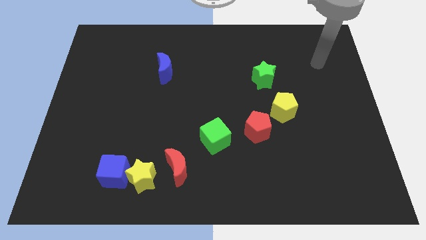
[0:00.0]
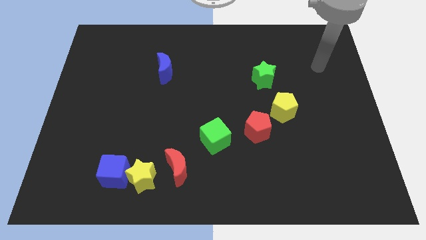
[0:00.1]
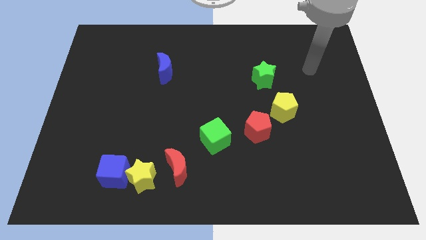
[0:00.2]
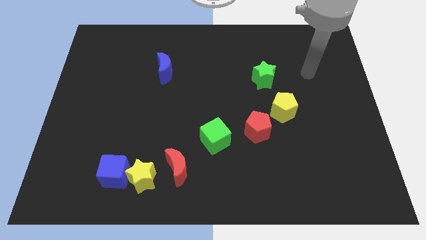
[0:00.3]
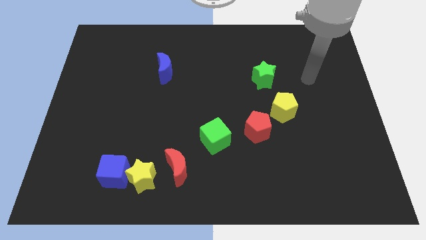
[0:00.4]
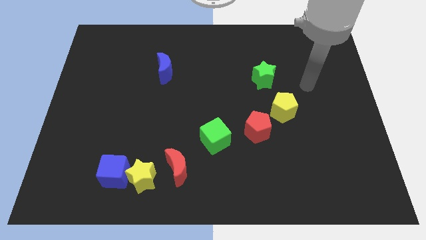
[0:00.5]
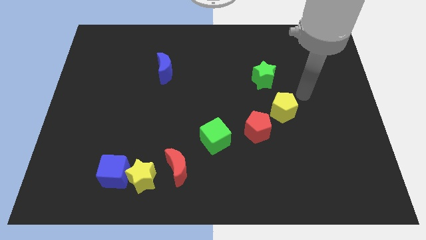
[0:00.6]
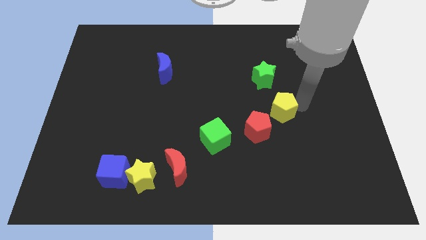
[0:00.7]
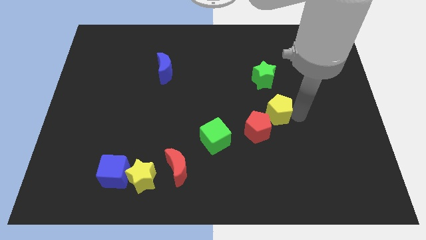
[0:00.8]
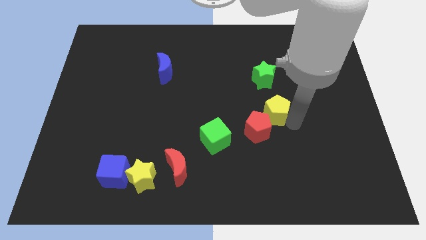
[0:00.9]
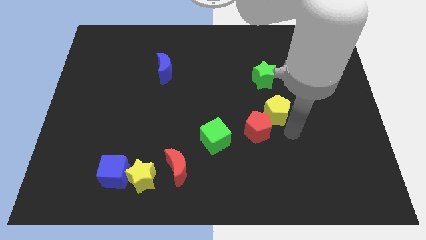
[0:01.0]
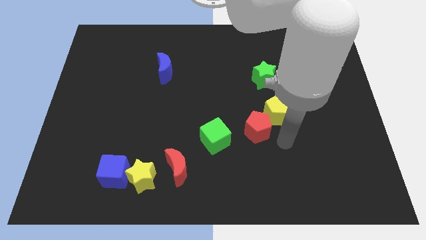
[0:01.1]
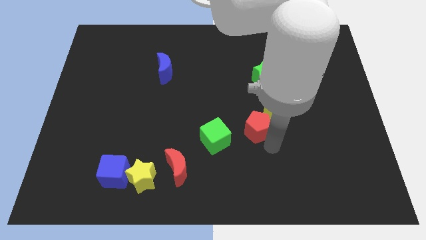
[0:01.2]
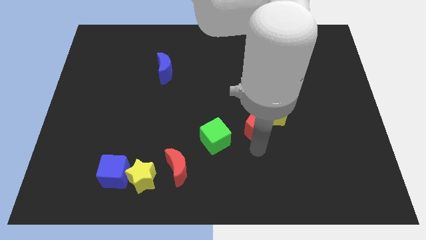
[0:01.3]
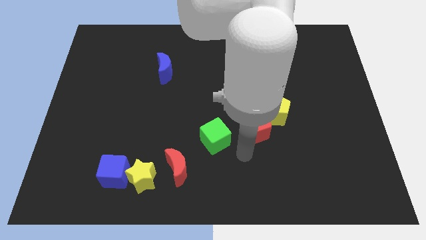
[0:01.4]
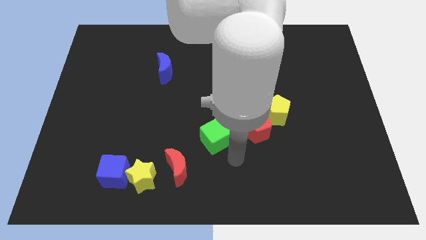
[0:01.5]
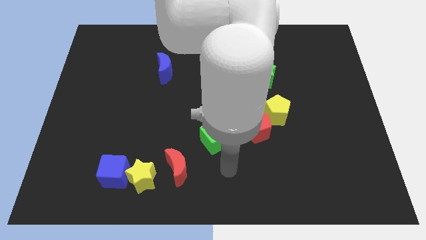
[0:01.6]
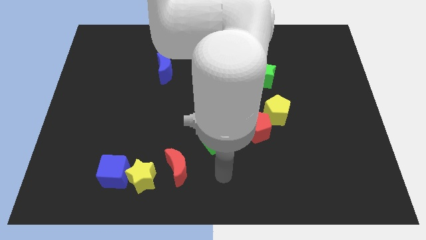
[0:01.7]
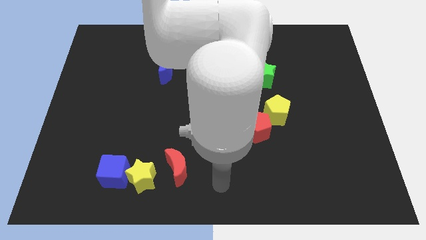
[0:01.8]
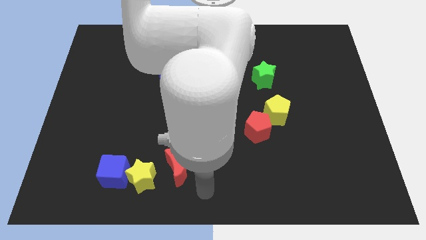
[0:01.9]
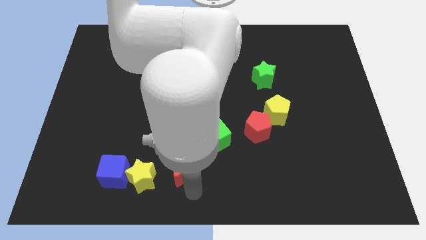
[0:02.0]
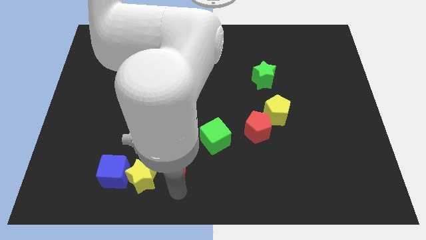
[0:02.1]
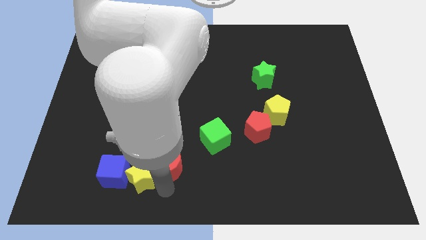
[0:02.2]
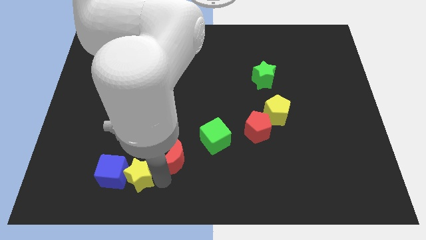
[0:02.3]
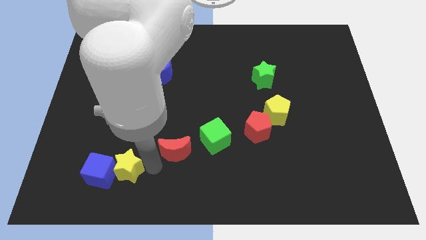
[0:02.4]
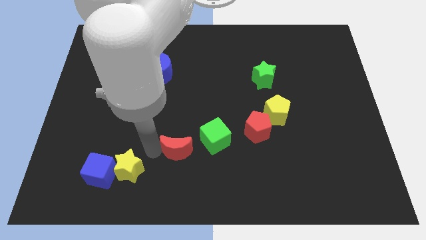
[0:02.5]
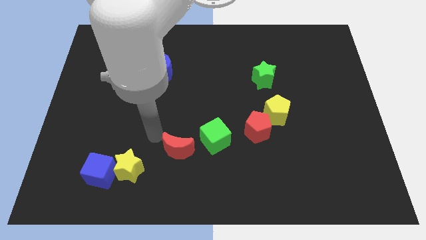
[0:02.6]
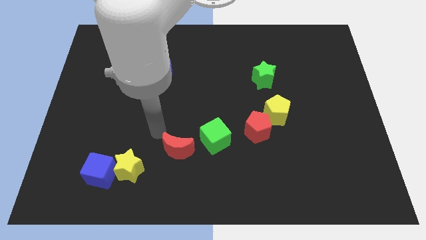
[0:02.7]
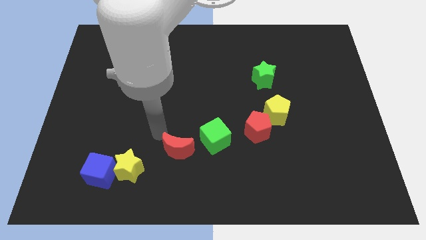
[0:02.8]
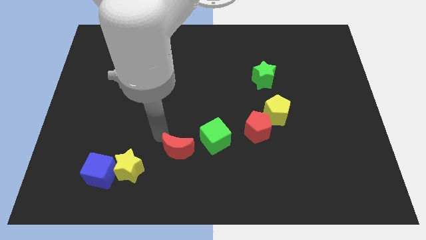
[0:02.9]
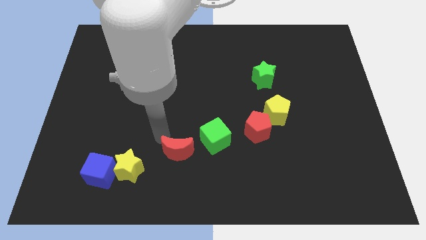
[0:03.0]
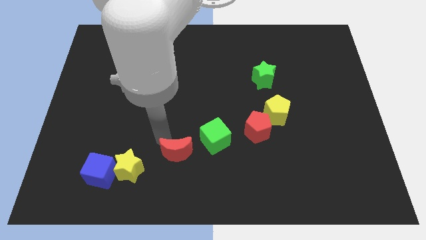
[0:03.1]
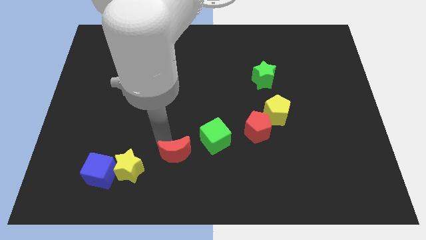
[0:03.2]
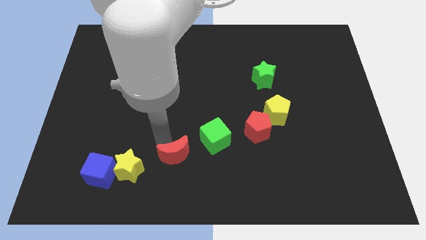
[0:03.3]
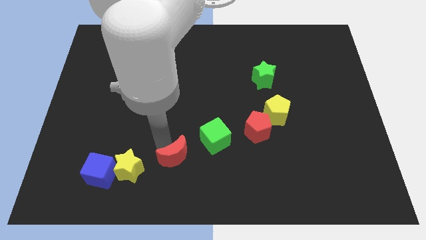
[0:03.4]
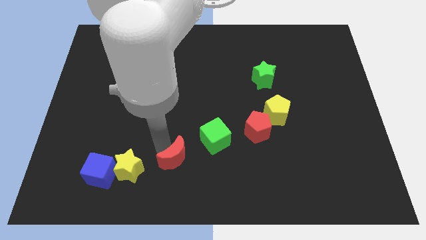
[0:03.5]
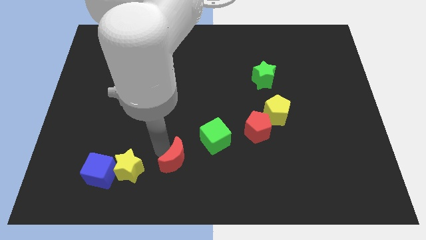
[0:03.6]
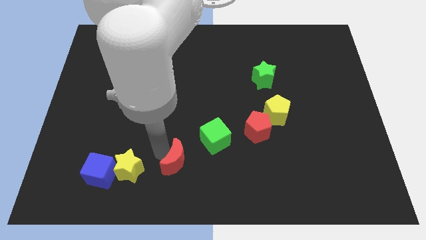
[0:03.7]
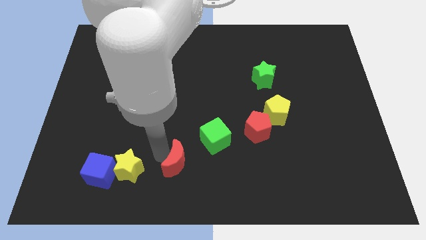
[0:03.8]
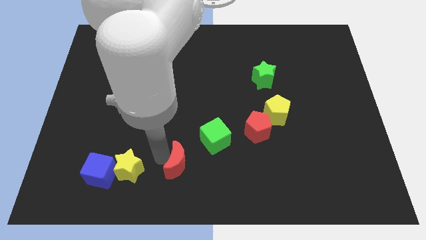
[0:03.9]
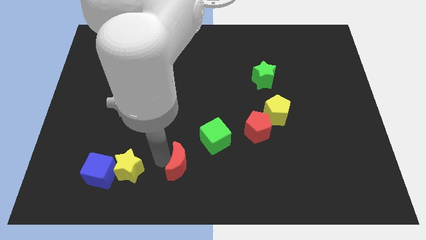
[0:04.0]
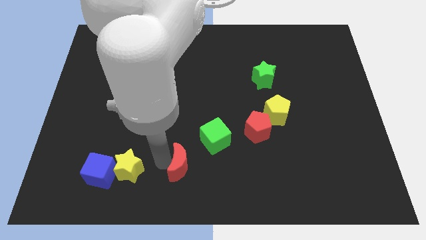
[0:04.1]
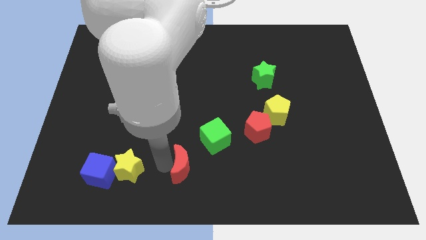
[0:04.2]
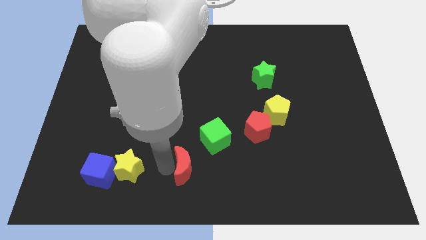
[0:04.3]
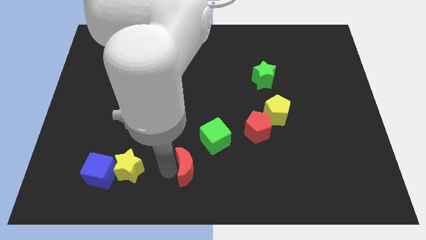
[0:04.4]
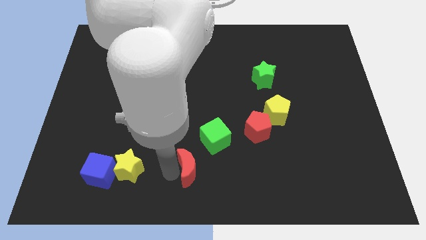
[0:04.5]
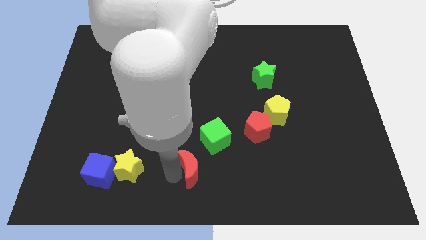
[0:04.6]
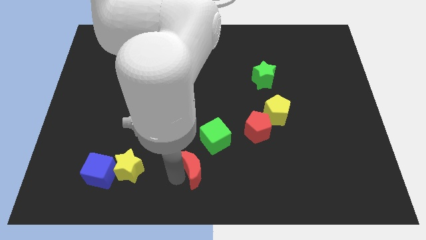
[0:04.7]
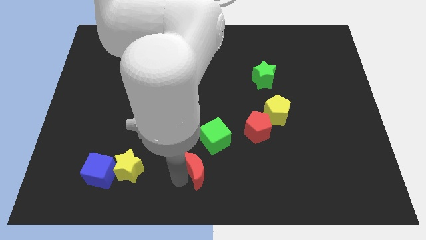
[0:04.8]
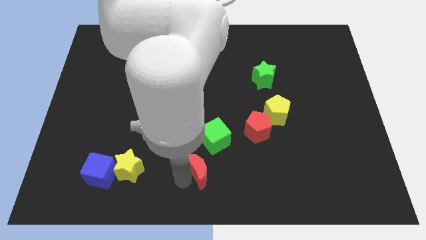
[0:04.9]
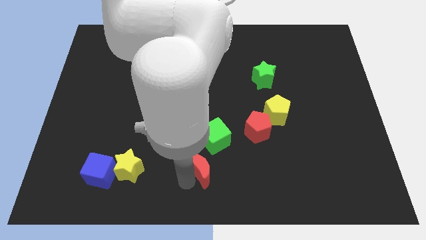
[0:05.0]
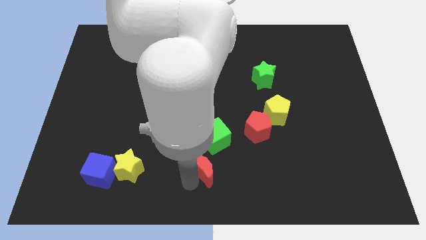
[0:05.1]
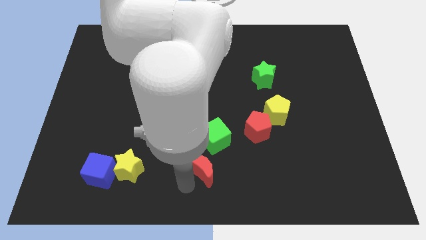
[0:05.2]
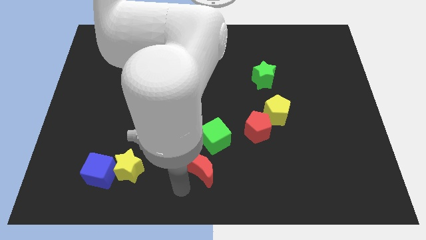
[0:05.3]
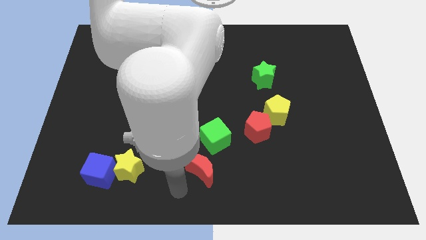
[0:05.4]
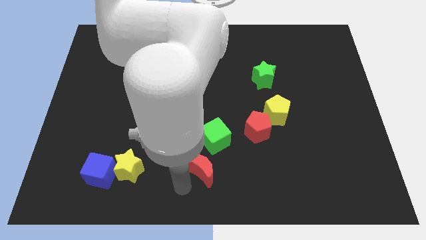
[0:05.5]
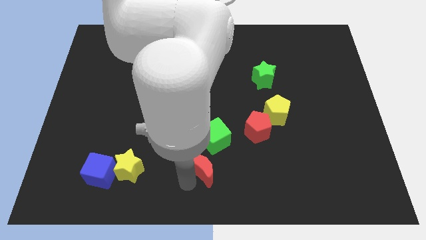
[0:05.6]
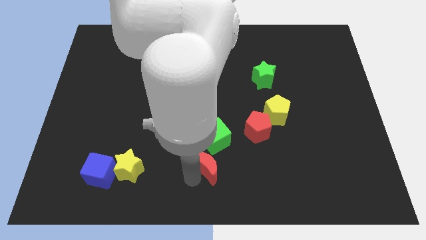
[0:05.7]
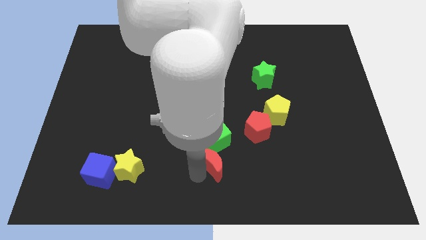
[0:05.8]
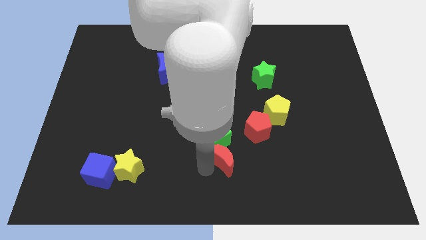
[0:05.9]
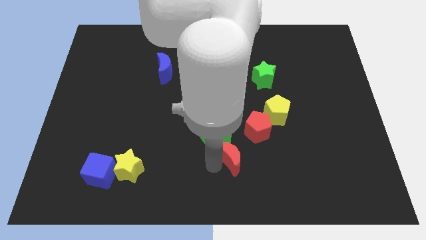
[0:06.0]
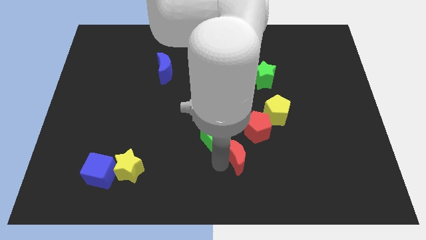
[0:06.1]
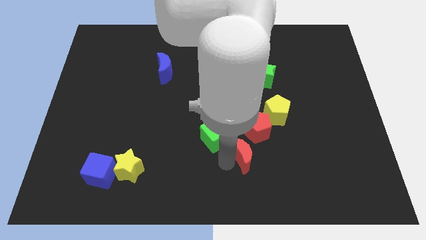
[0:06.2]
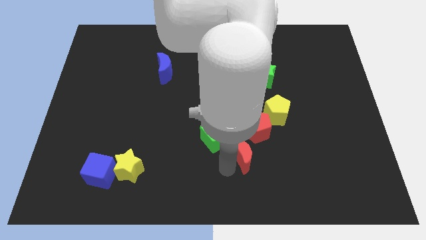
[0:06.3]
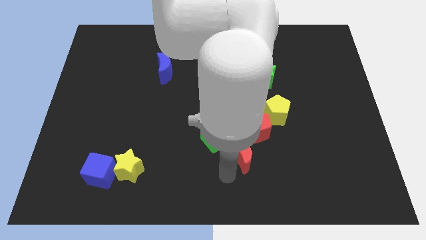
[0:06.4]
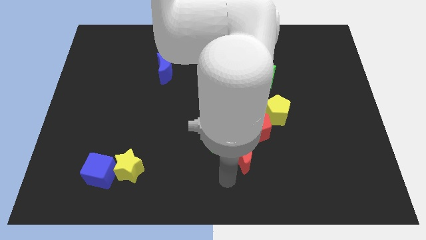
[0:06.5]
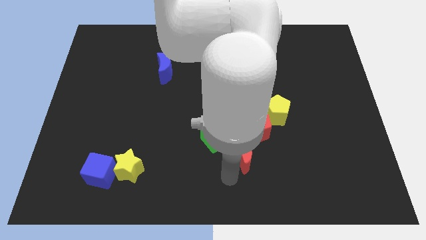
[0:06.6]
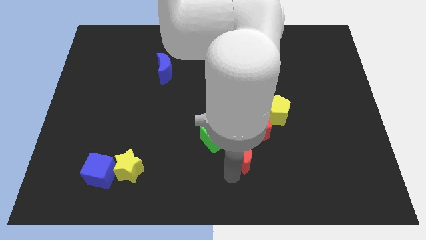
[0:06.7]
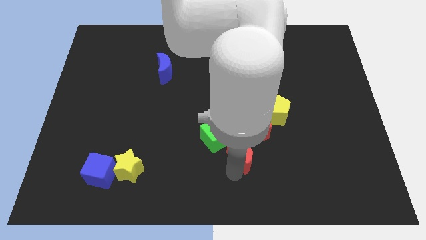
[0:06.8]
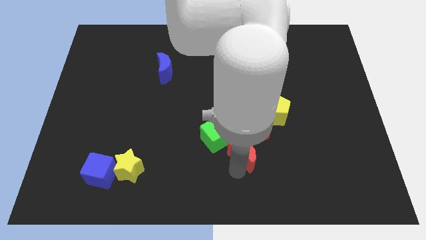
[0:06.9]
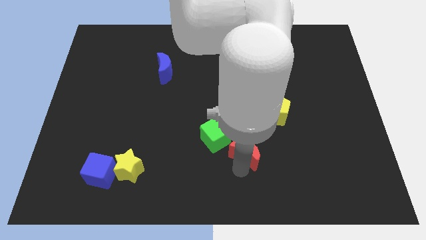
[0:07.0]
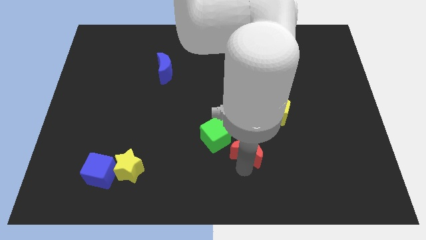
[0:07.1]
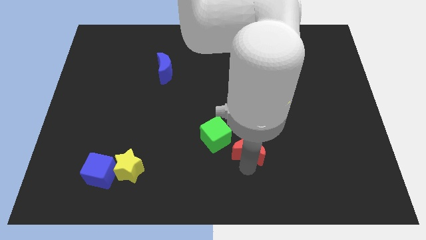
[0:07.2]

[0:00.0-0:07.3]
put the red moon to the red pentagon
